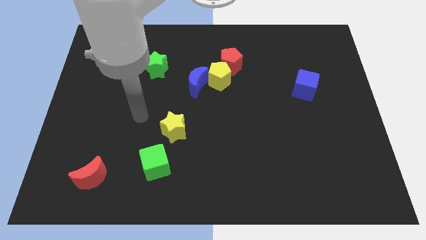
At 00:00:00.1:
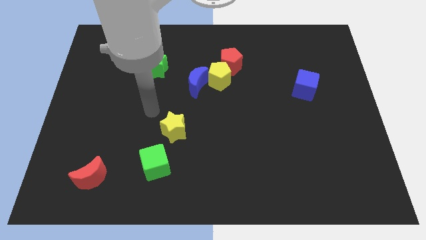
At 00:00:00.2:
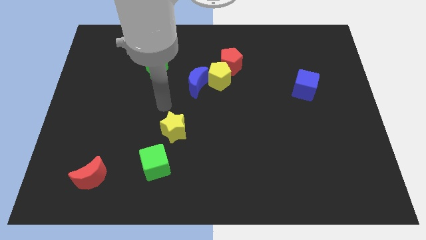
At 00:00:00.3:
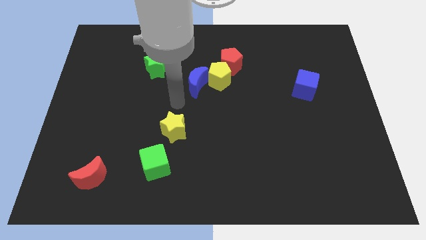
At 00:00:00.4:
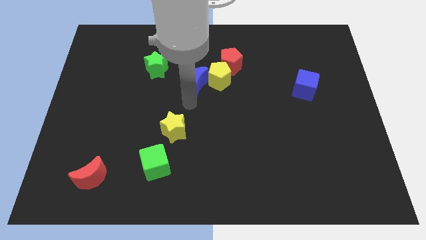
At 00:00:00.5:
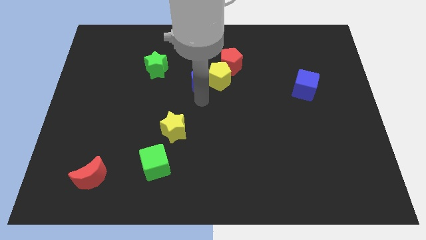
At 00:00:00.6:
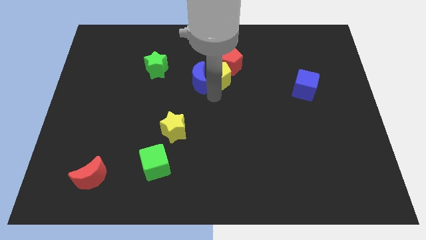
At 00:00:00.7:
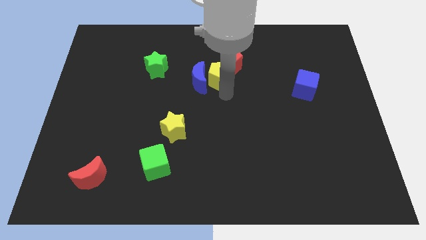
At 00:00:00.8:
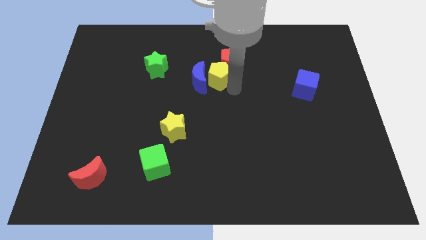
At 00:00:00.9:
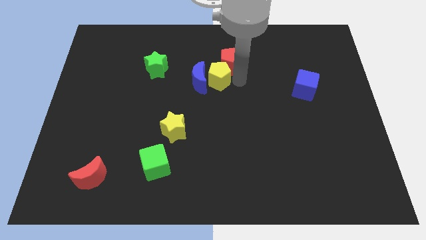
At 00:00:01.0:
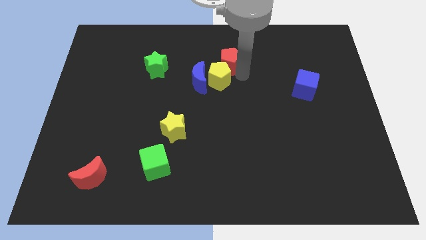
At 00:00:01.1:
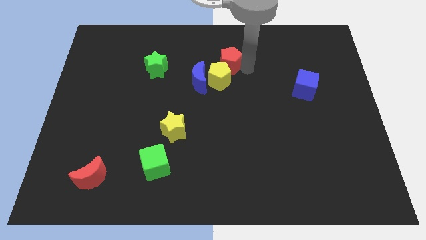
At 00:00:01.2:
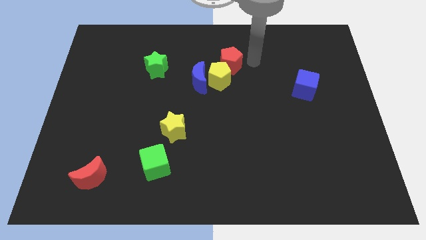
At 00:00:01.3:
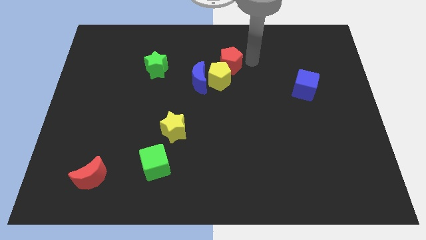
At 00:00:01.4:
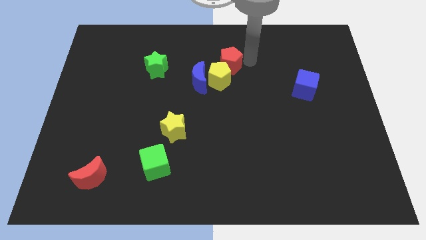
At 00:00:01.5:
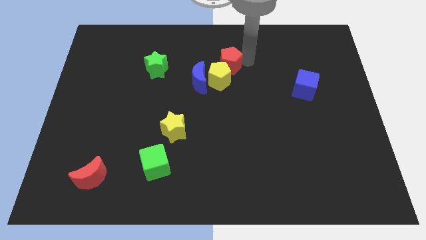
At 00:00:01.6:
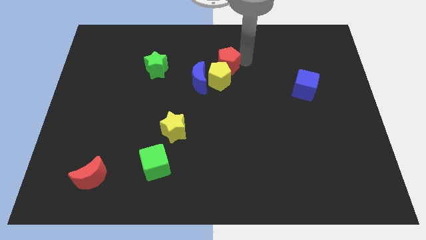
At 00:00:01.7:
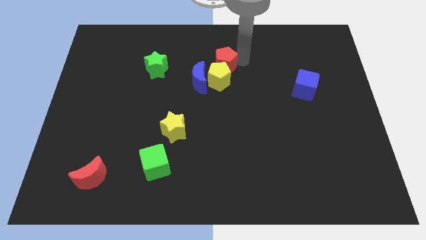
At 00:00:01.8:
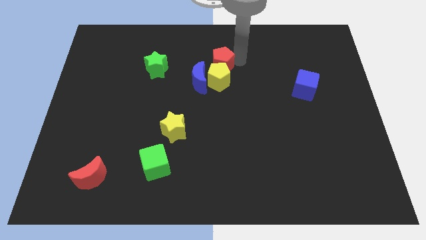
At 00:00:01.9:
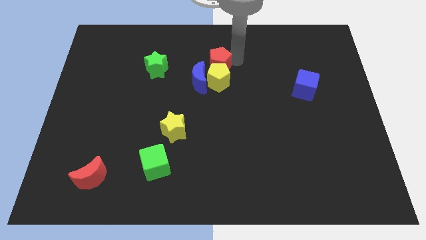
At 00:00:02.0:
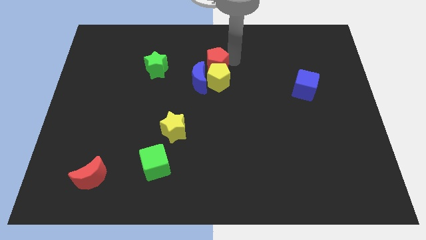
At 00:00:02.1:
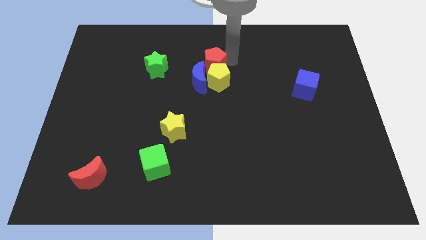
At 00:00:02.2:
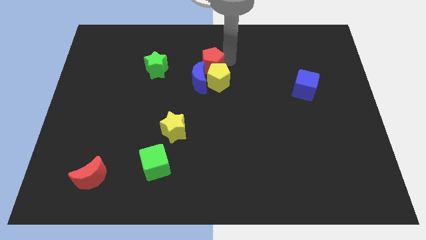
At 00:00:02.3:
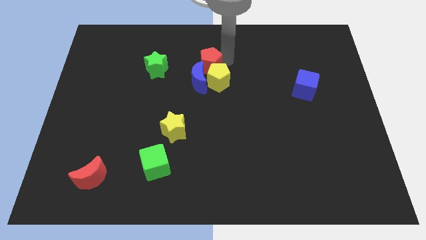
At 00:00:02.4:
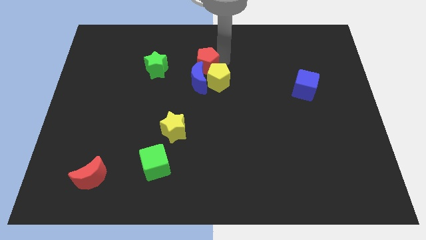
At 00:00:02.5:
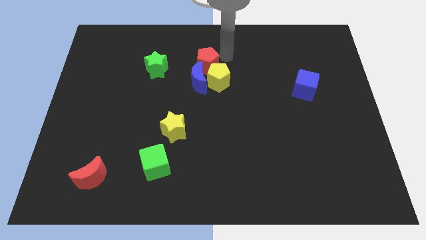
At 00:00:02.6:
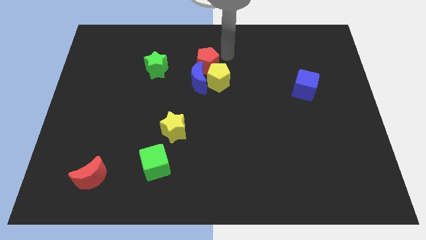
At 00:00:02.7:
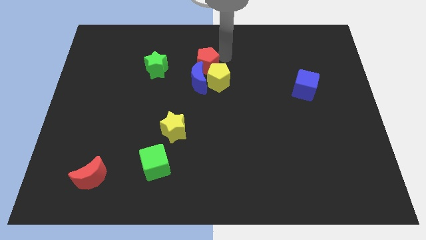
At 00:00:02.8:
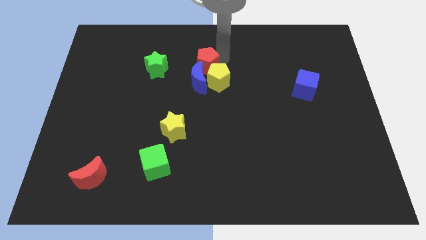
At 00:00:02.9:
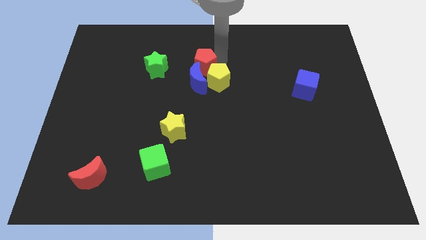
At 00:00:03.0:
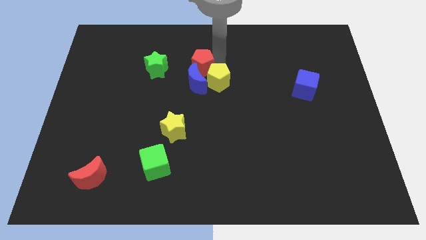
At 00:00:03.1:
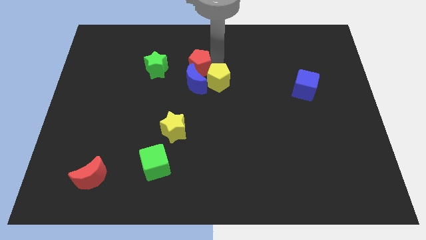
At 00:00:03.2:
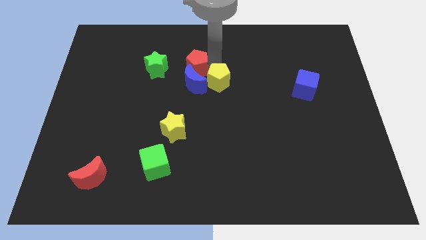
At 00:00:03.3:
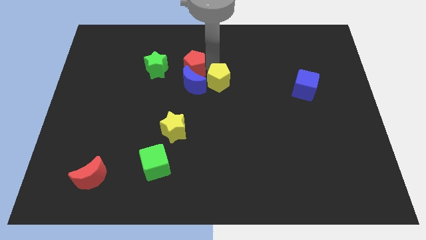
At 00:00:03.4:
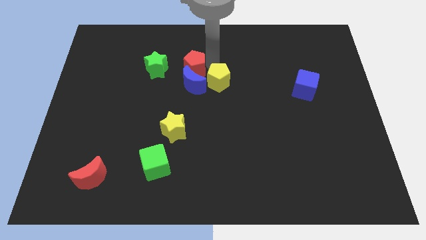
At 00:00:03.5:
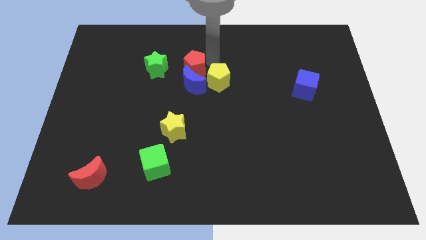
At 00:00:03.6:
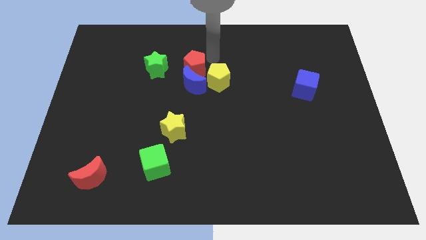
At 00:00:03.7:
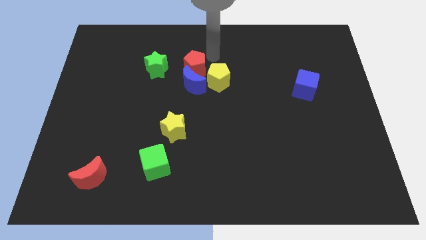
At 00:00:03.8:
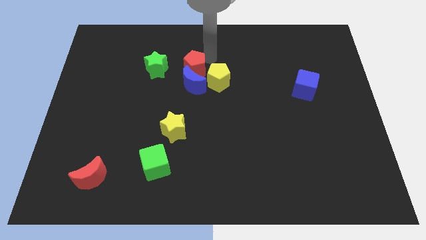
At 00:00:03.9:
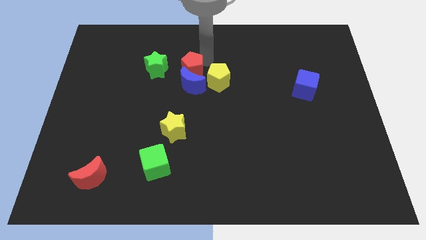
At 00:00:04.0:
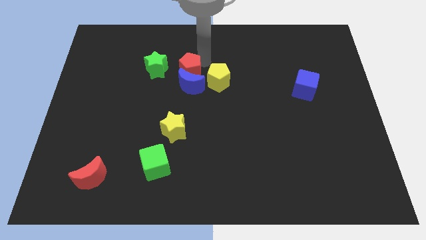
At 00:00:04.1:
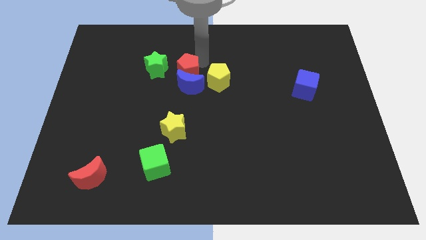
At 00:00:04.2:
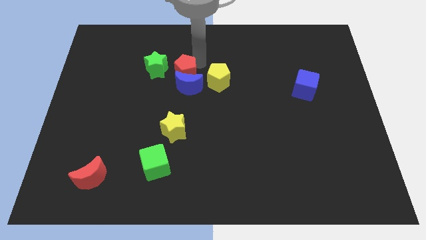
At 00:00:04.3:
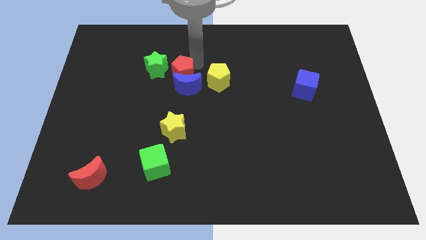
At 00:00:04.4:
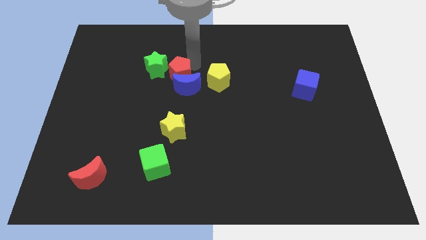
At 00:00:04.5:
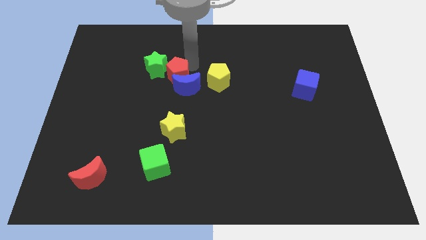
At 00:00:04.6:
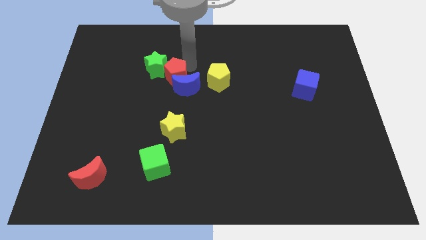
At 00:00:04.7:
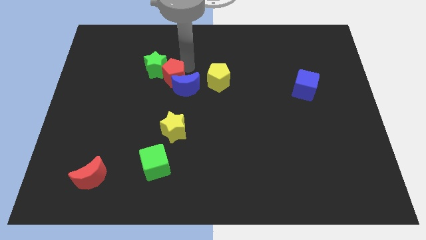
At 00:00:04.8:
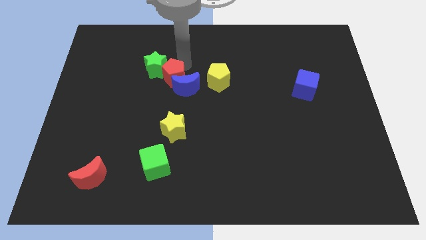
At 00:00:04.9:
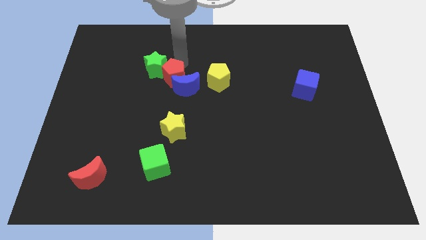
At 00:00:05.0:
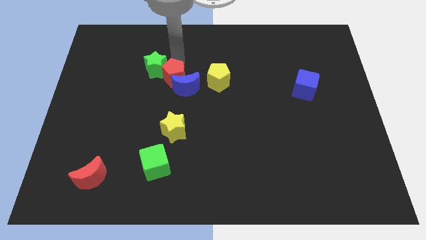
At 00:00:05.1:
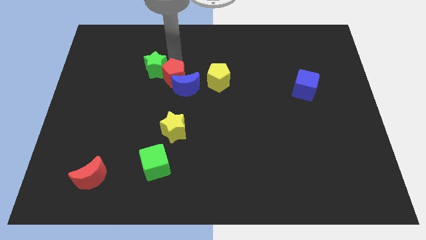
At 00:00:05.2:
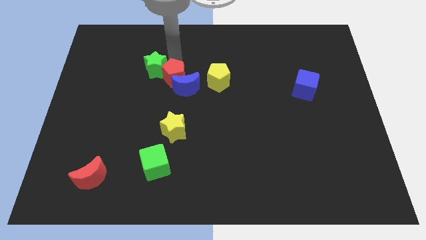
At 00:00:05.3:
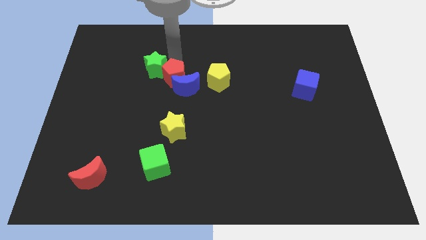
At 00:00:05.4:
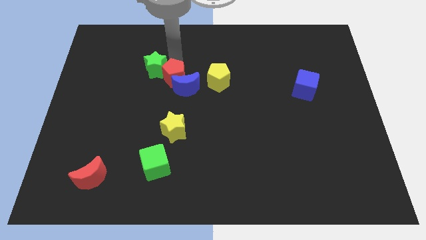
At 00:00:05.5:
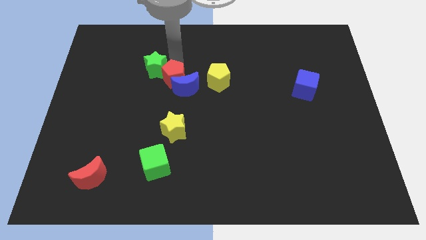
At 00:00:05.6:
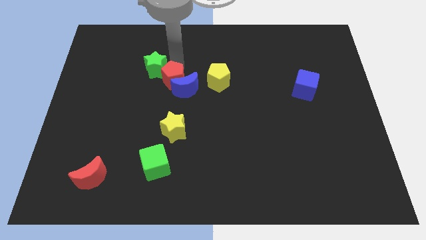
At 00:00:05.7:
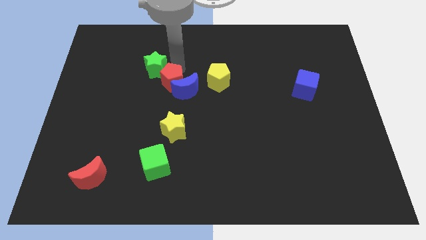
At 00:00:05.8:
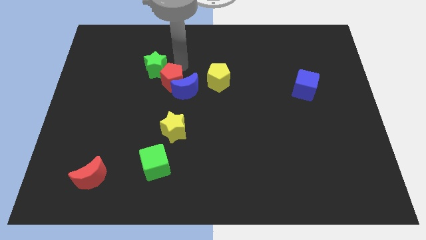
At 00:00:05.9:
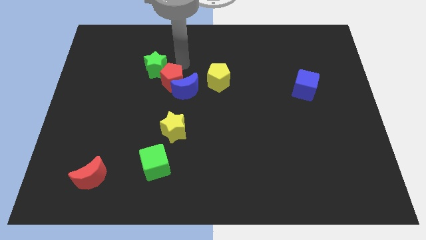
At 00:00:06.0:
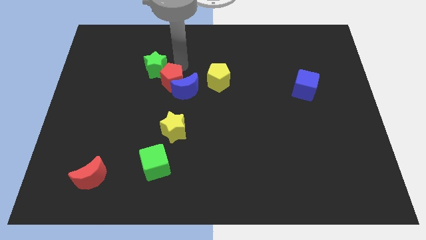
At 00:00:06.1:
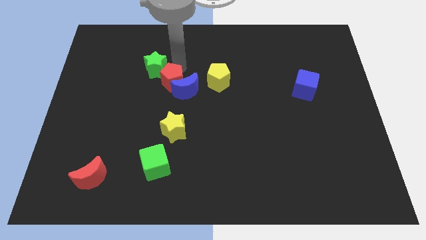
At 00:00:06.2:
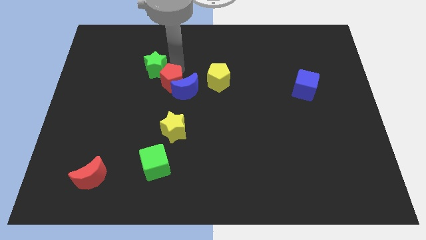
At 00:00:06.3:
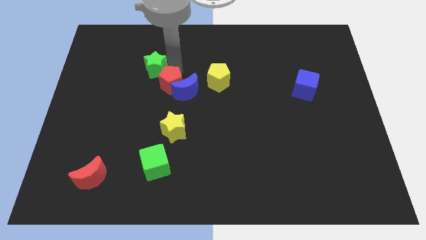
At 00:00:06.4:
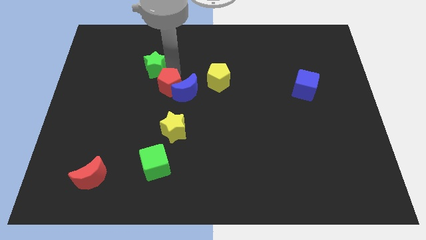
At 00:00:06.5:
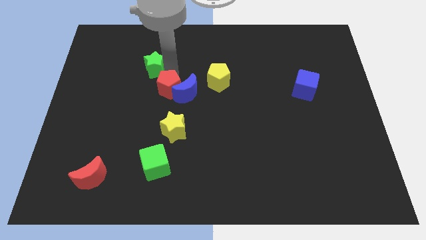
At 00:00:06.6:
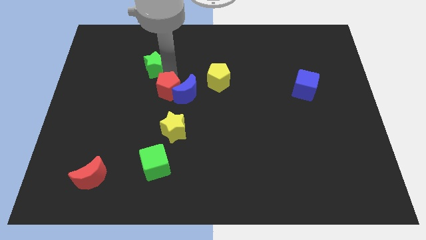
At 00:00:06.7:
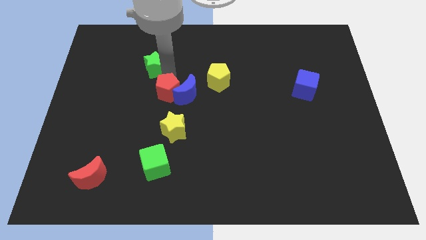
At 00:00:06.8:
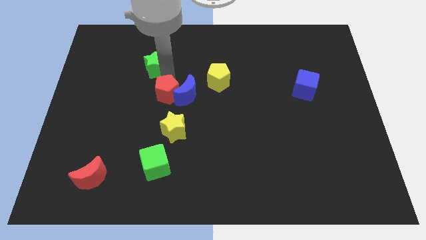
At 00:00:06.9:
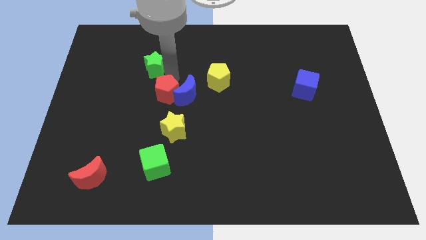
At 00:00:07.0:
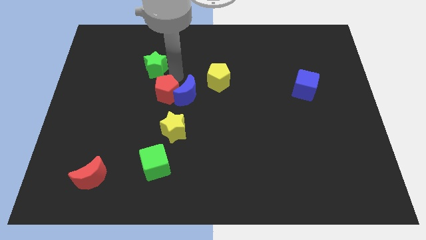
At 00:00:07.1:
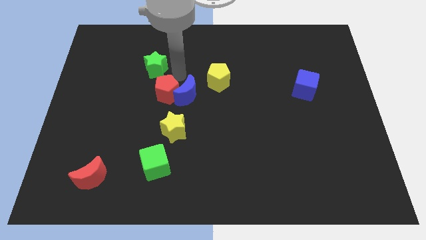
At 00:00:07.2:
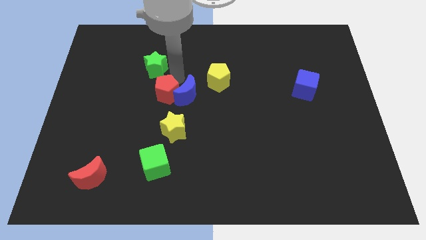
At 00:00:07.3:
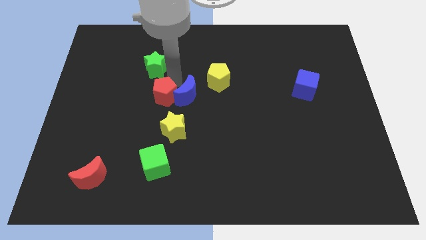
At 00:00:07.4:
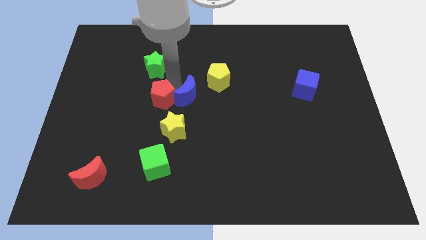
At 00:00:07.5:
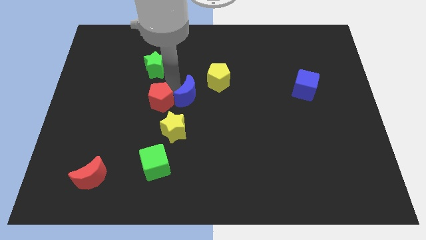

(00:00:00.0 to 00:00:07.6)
move the red pentagon down and then to the left

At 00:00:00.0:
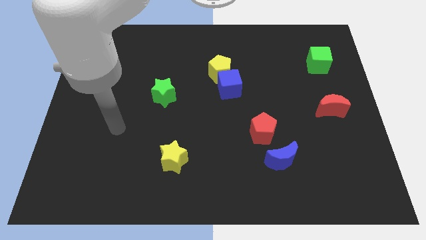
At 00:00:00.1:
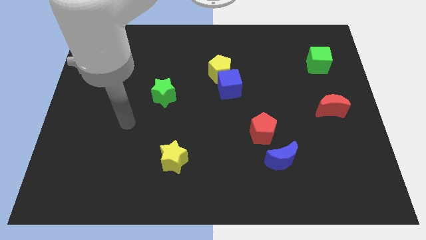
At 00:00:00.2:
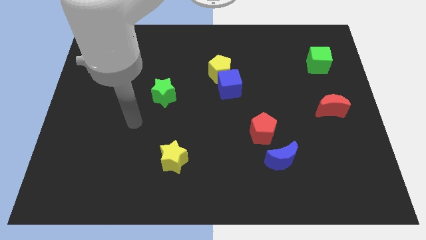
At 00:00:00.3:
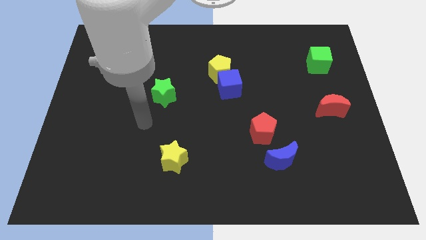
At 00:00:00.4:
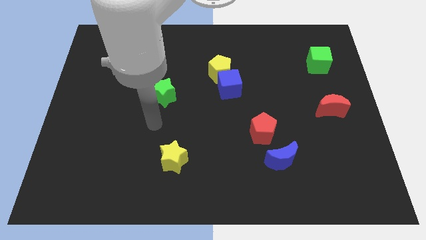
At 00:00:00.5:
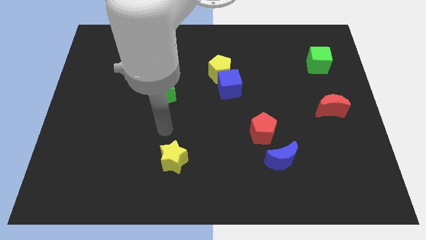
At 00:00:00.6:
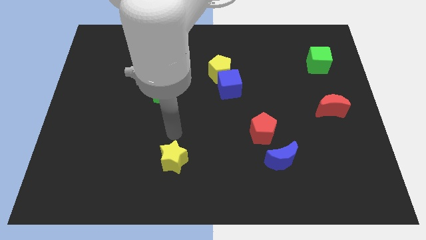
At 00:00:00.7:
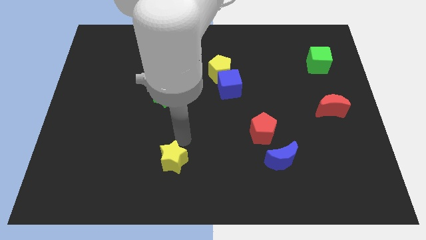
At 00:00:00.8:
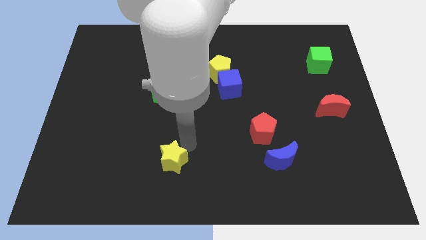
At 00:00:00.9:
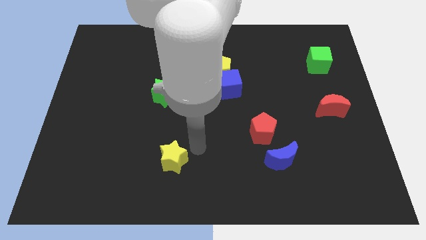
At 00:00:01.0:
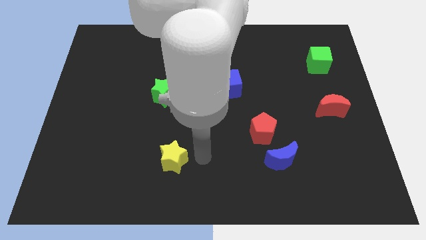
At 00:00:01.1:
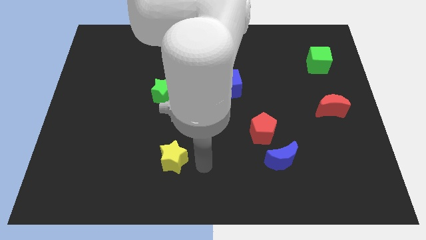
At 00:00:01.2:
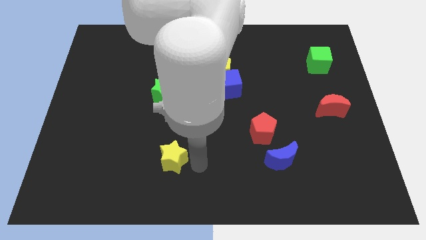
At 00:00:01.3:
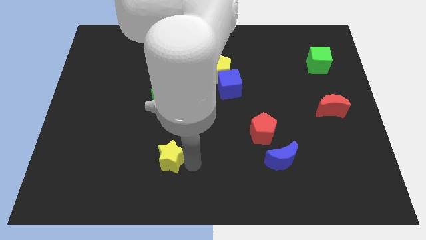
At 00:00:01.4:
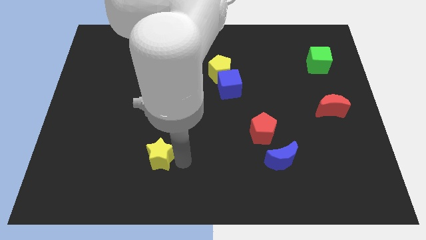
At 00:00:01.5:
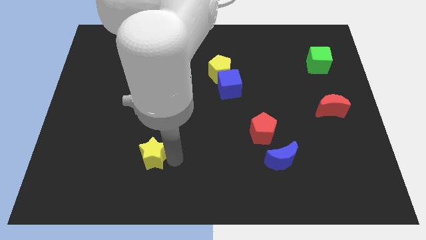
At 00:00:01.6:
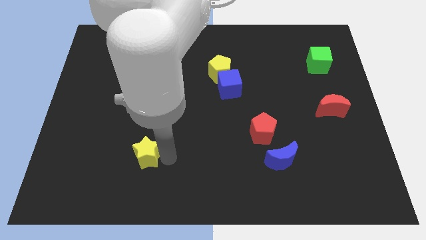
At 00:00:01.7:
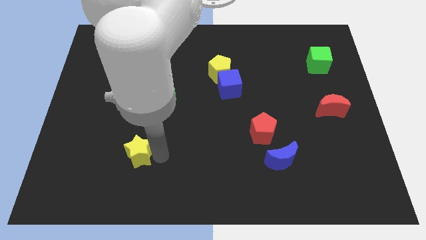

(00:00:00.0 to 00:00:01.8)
move the yellow star to the left a bit
